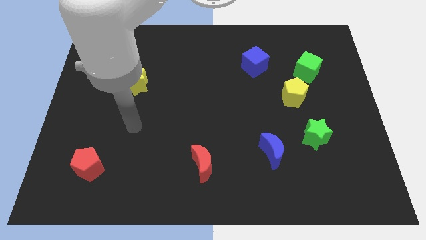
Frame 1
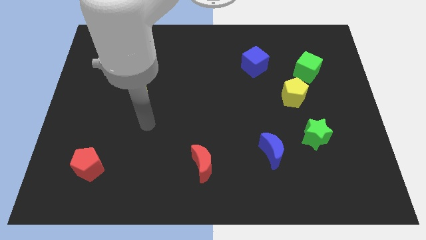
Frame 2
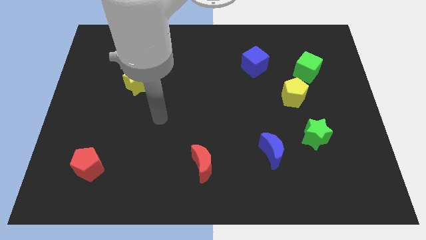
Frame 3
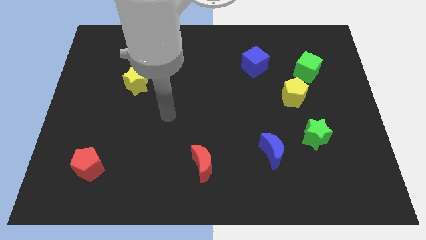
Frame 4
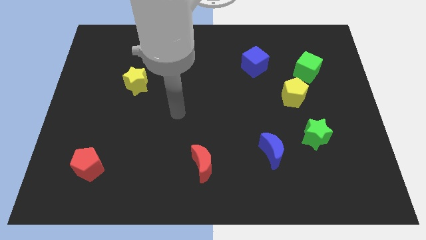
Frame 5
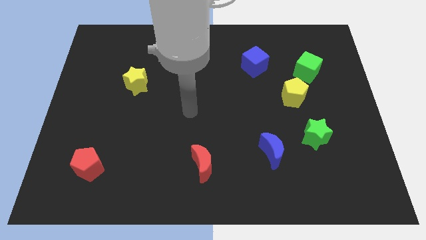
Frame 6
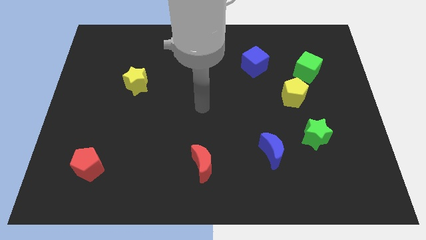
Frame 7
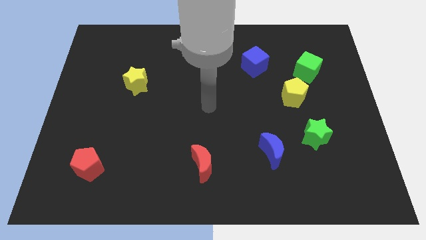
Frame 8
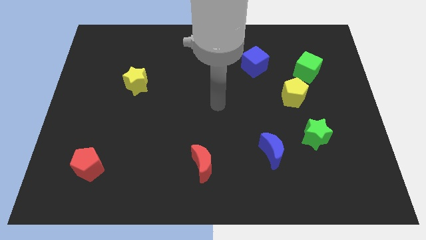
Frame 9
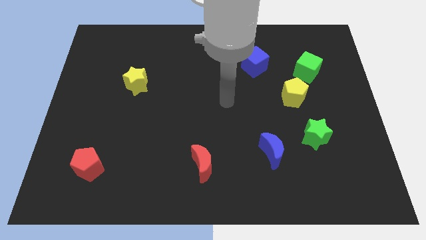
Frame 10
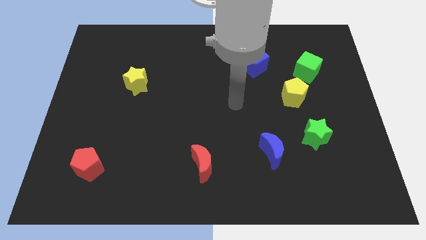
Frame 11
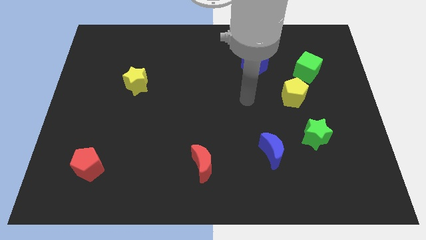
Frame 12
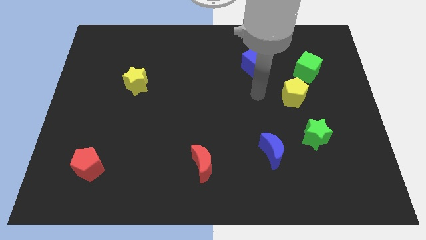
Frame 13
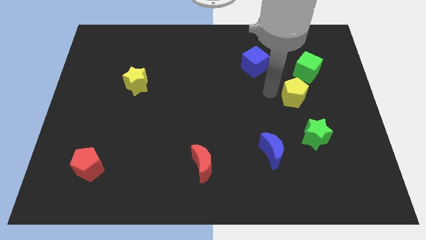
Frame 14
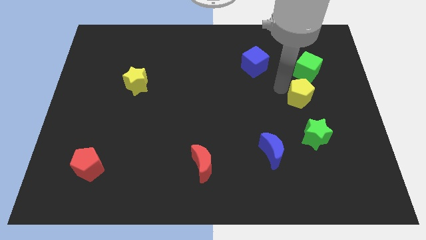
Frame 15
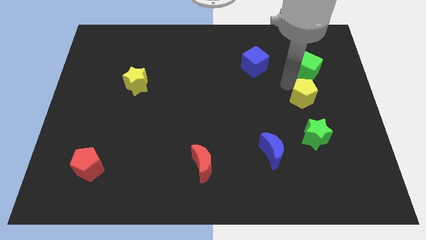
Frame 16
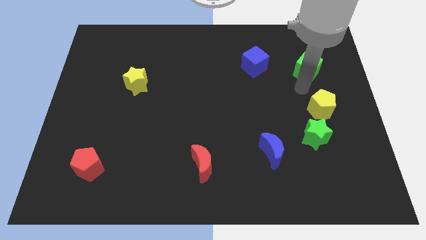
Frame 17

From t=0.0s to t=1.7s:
move the green cube away from the yellow pentagon

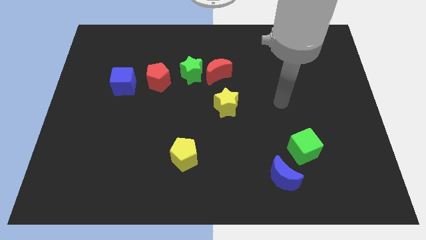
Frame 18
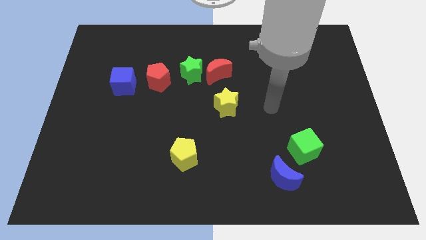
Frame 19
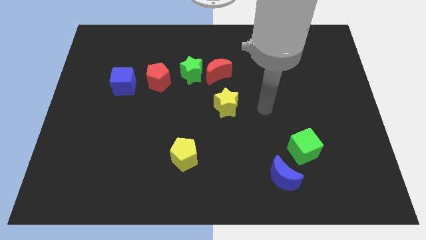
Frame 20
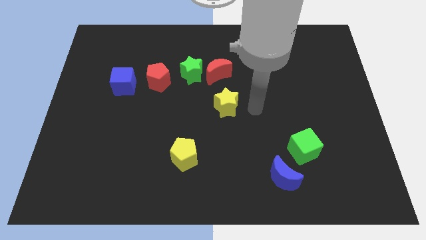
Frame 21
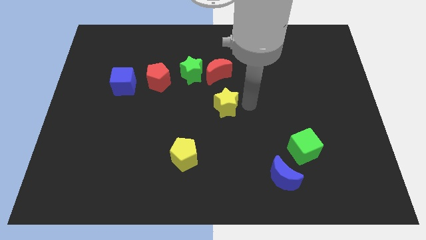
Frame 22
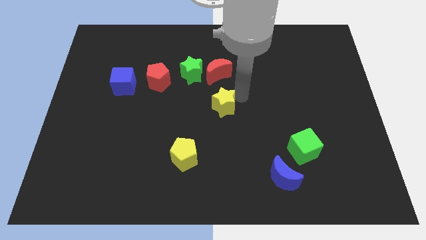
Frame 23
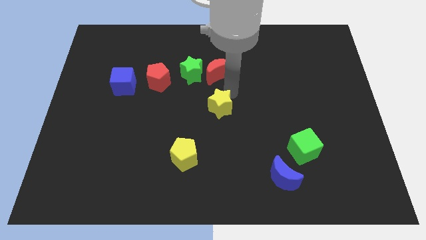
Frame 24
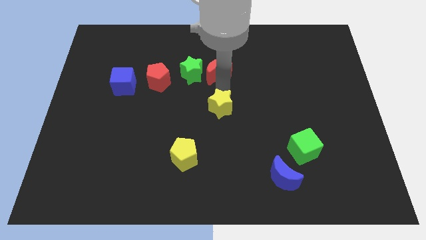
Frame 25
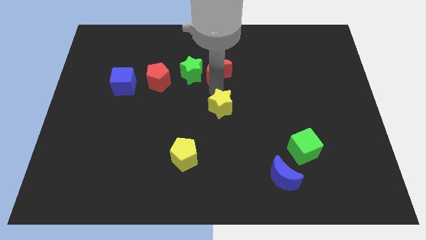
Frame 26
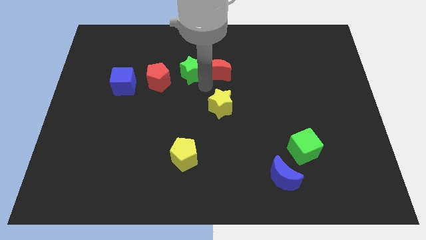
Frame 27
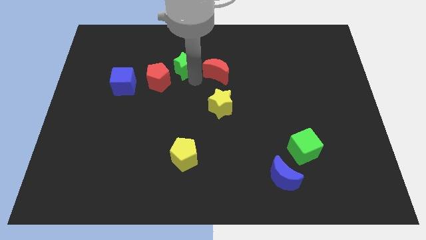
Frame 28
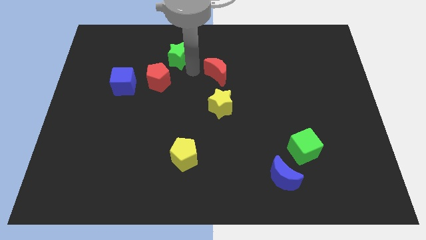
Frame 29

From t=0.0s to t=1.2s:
pull the red moon apart from the green star

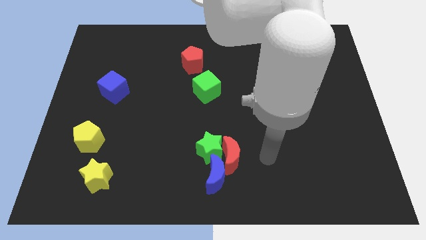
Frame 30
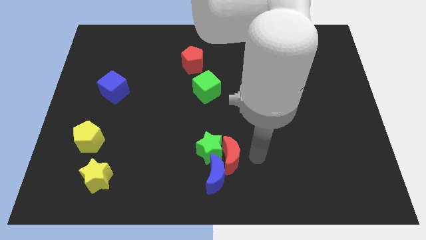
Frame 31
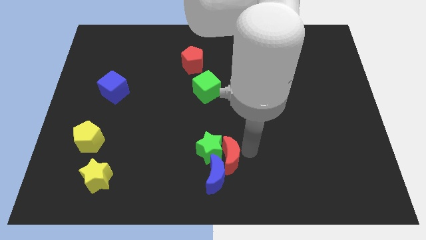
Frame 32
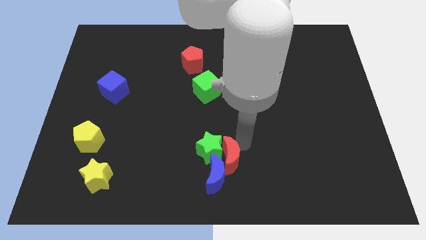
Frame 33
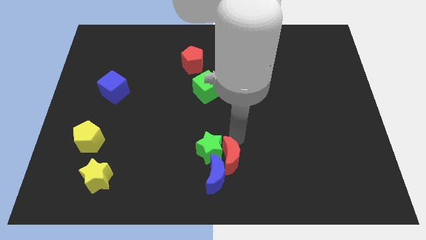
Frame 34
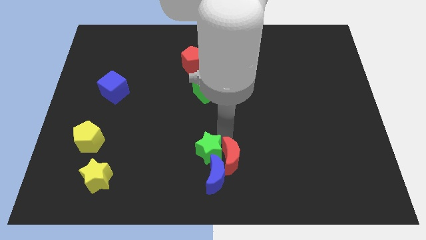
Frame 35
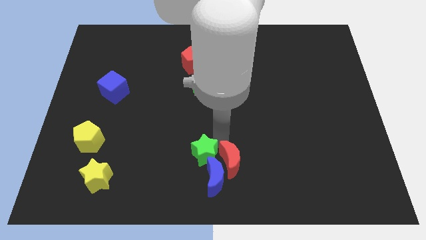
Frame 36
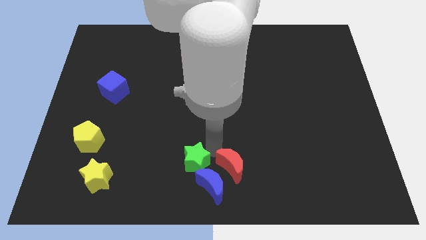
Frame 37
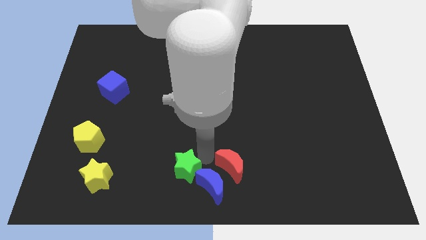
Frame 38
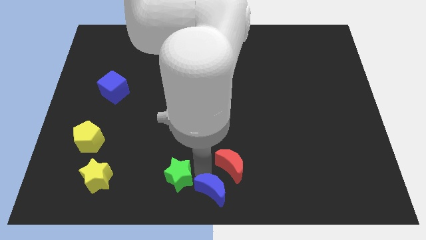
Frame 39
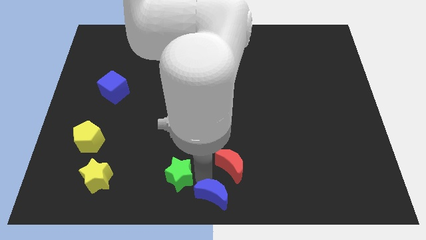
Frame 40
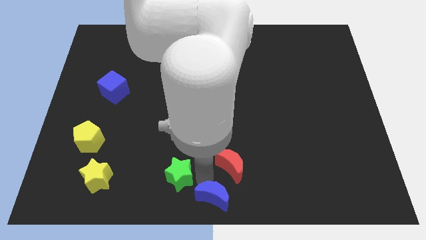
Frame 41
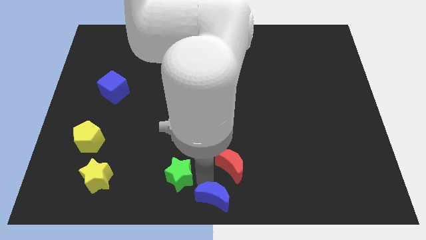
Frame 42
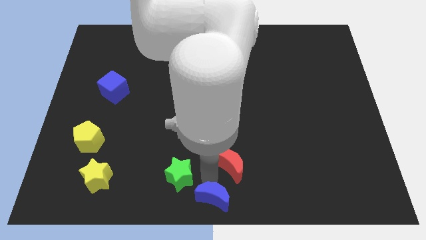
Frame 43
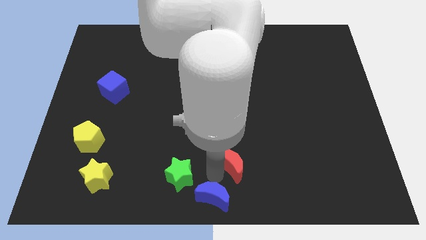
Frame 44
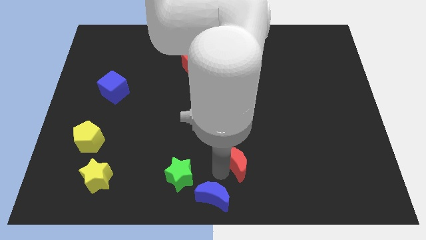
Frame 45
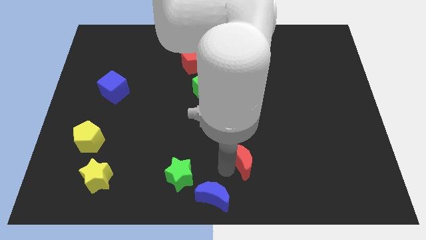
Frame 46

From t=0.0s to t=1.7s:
separate the red moon from the green star and blue moon

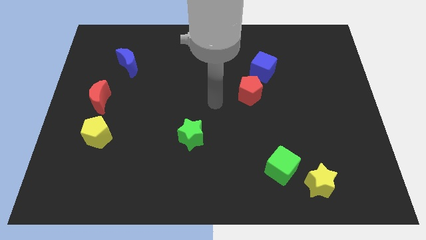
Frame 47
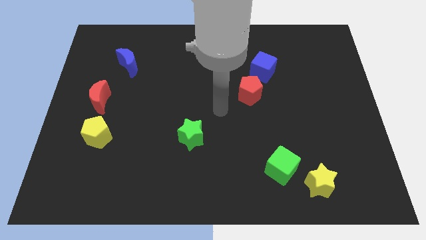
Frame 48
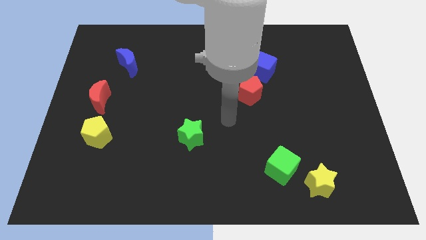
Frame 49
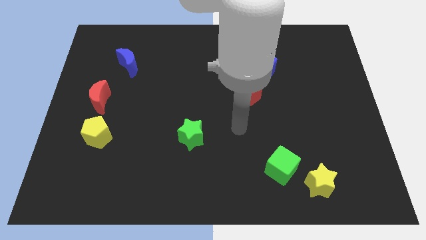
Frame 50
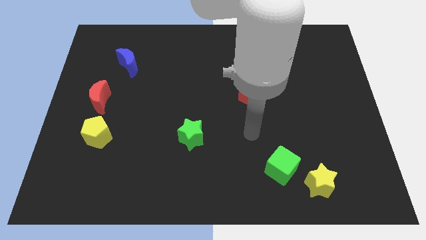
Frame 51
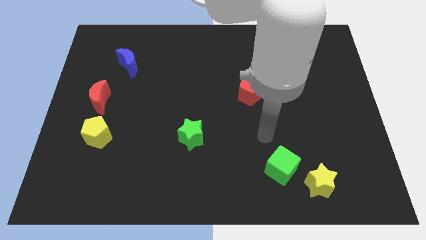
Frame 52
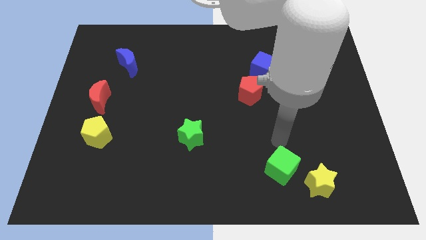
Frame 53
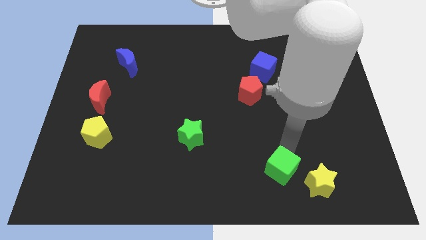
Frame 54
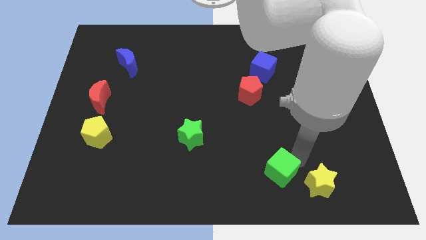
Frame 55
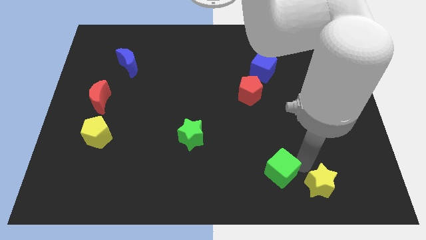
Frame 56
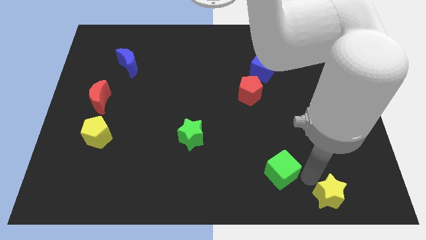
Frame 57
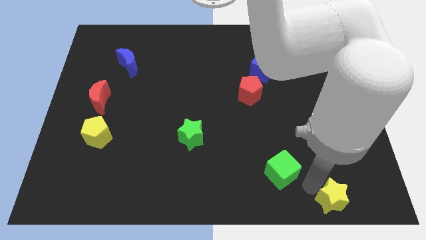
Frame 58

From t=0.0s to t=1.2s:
pull the green cube apart from the yellow star

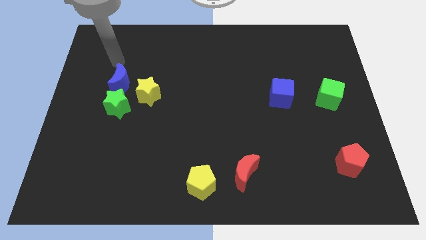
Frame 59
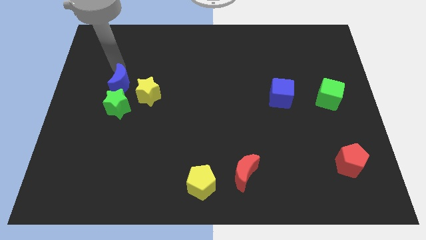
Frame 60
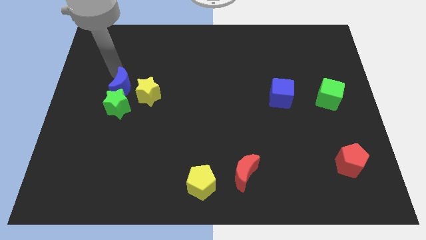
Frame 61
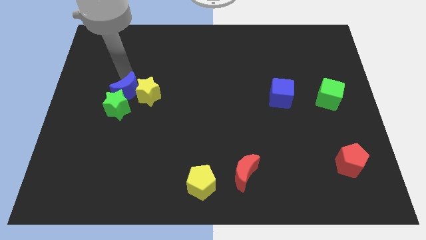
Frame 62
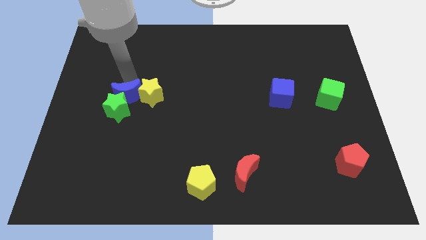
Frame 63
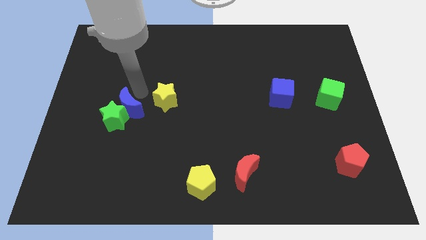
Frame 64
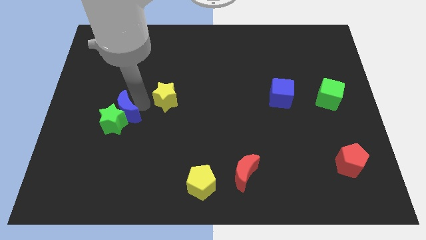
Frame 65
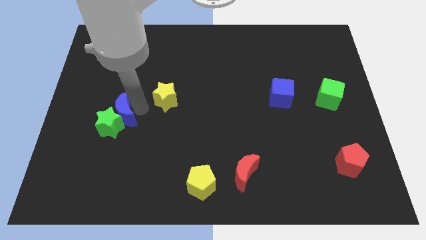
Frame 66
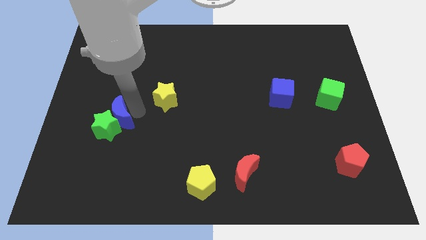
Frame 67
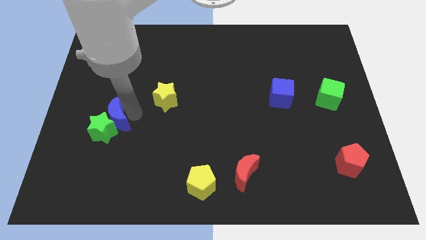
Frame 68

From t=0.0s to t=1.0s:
move the green star away from the yellow star and blue moon

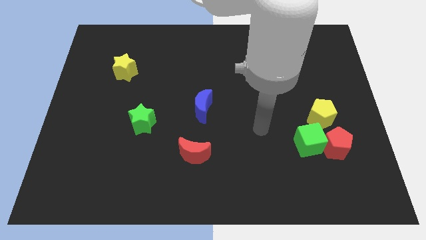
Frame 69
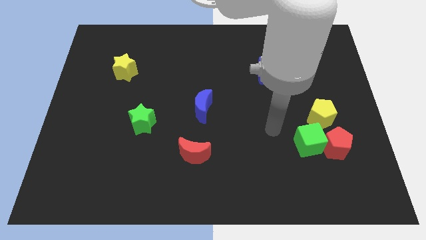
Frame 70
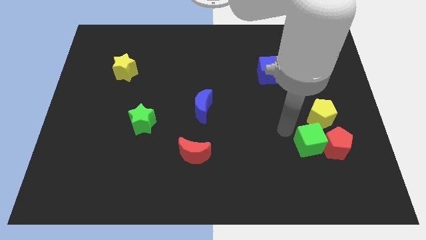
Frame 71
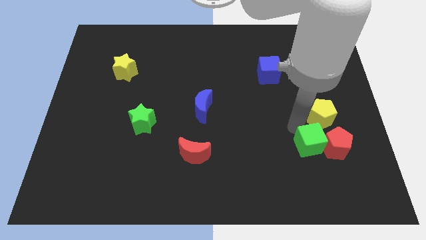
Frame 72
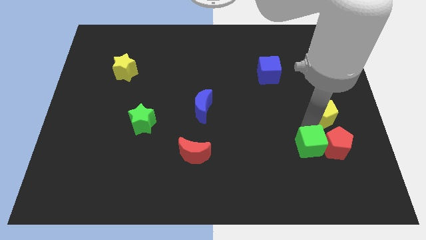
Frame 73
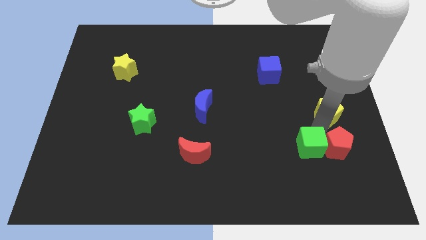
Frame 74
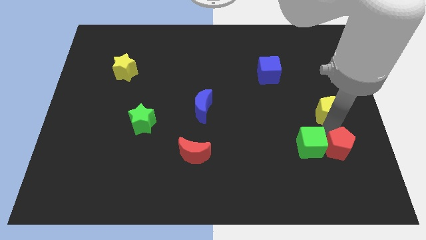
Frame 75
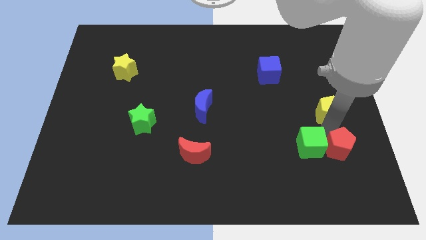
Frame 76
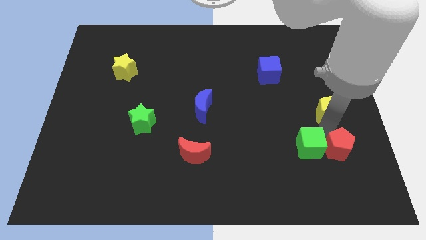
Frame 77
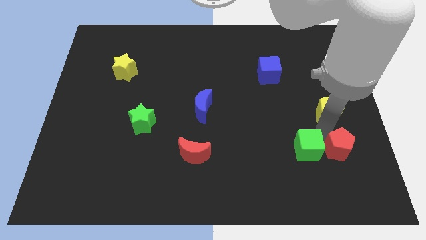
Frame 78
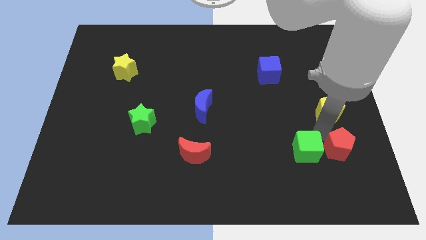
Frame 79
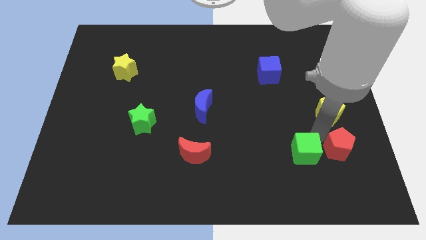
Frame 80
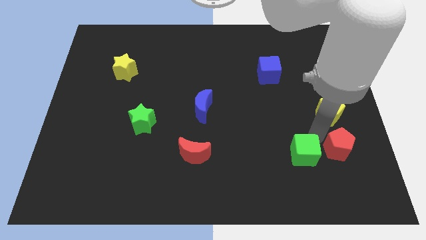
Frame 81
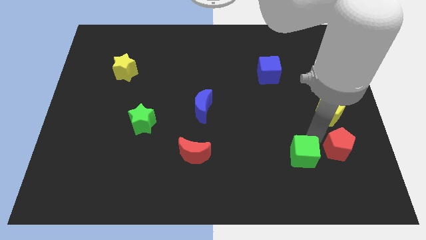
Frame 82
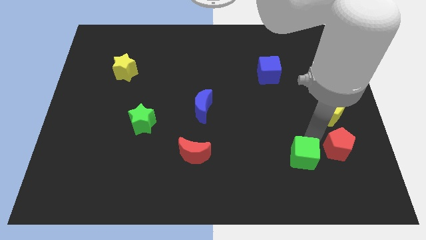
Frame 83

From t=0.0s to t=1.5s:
separate the green cube from the red pentagon and yellow pentagon

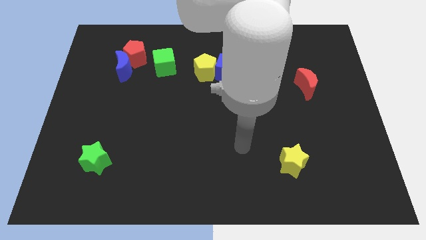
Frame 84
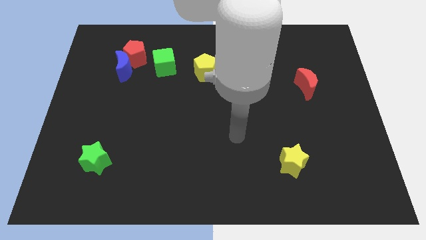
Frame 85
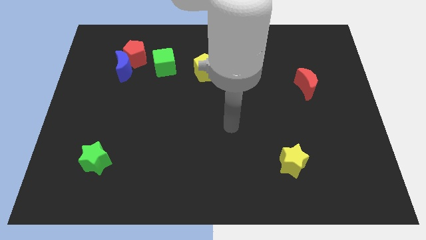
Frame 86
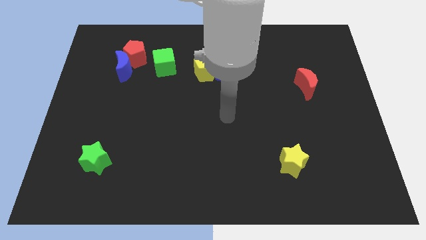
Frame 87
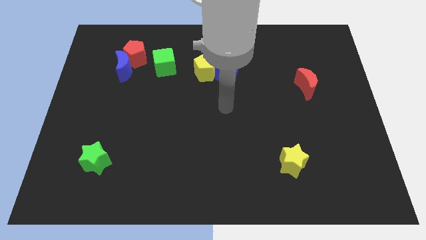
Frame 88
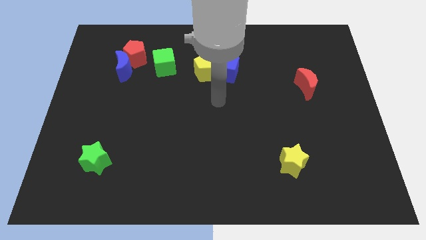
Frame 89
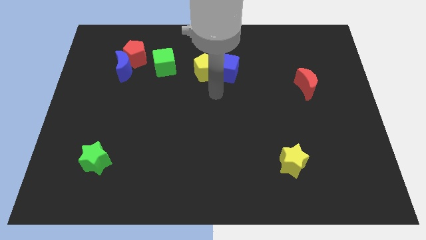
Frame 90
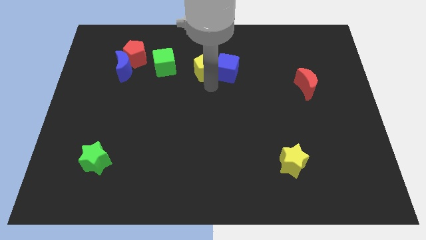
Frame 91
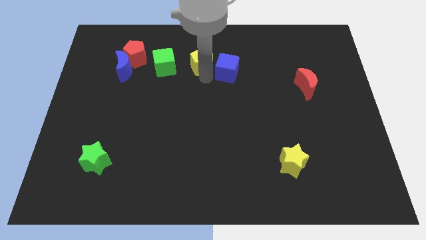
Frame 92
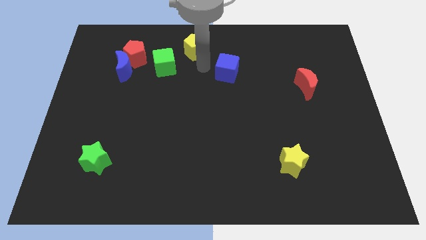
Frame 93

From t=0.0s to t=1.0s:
pull the blue cube apart from the yellow pentagon

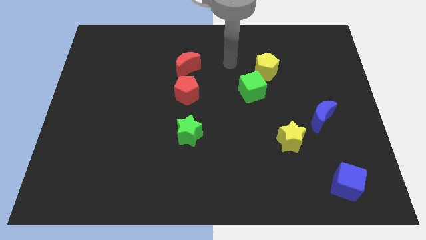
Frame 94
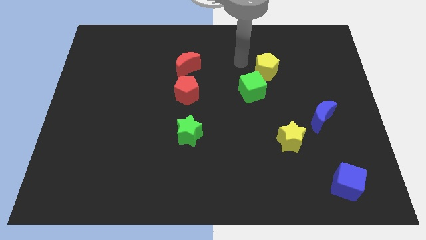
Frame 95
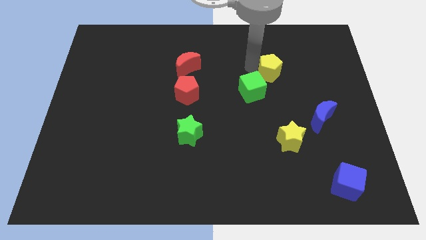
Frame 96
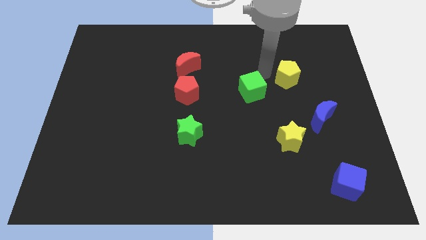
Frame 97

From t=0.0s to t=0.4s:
pull the green cube apart from the yellow pentagon
